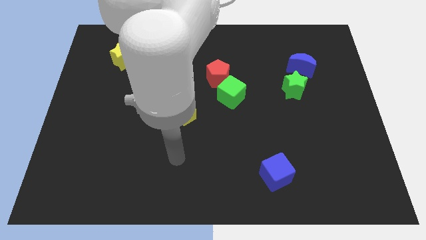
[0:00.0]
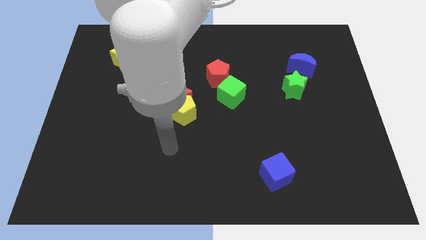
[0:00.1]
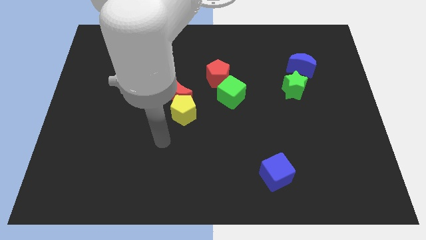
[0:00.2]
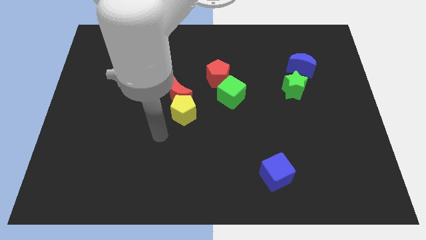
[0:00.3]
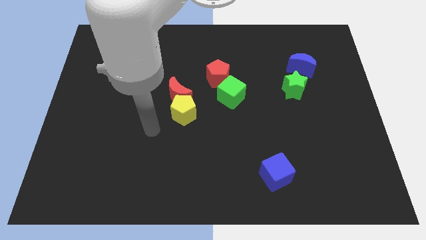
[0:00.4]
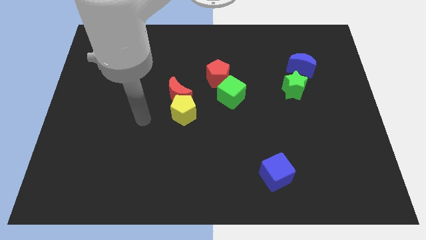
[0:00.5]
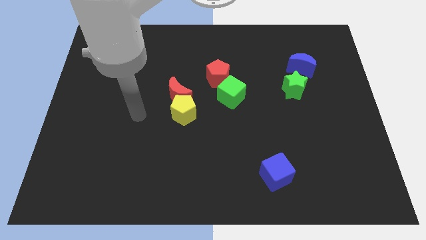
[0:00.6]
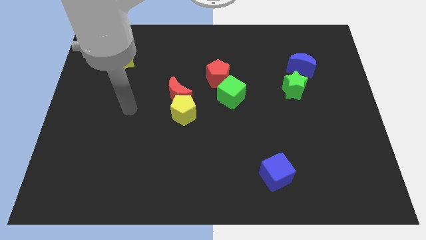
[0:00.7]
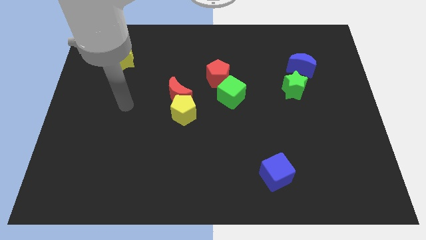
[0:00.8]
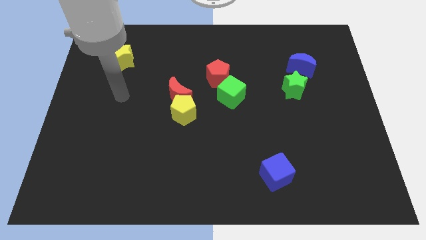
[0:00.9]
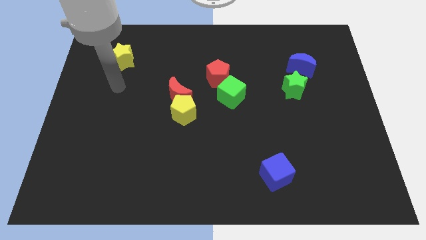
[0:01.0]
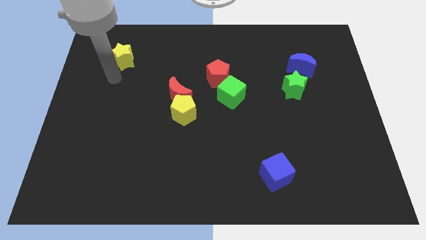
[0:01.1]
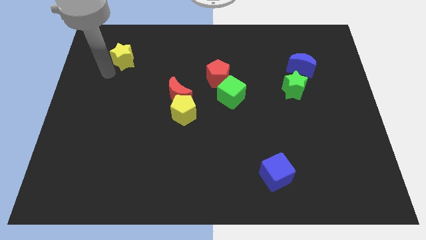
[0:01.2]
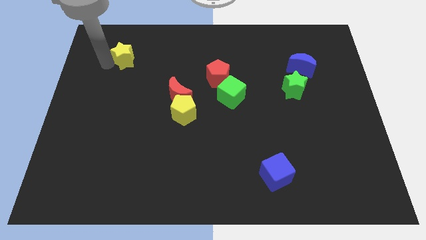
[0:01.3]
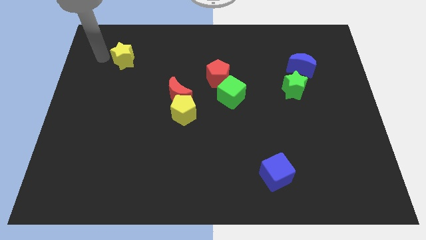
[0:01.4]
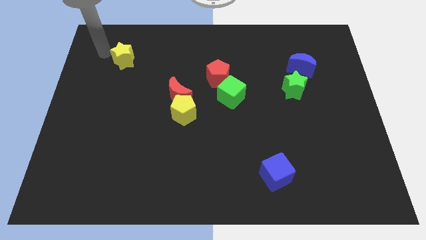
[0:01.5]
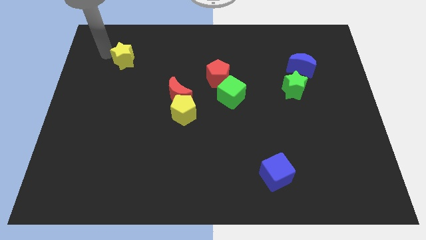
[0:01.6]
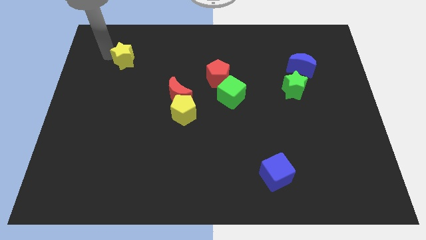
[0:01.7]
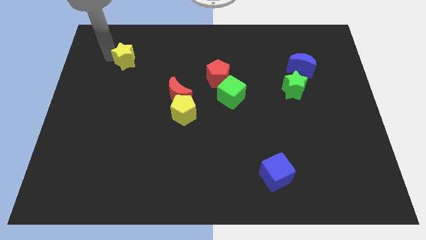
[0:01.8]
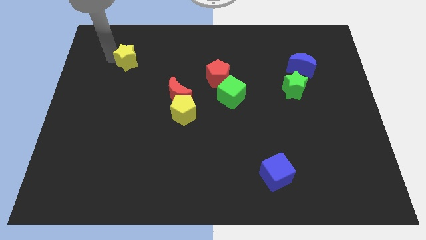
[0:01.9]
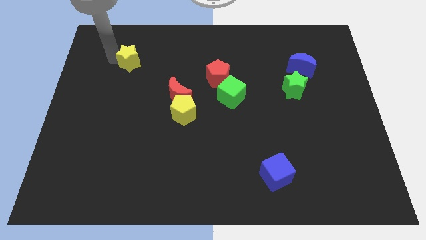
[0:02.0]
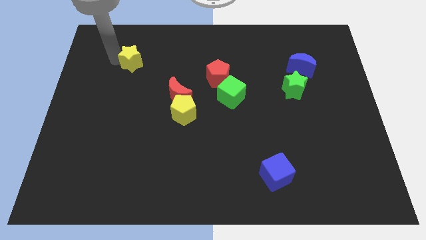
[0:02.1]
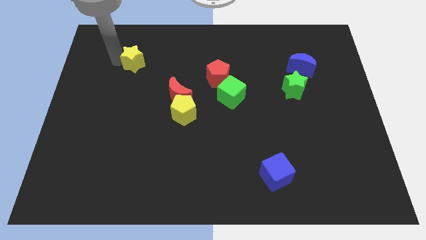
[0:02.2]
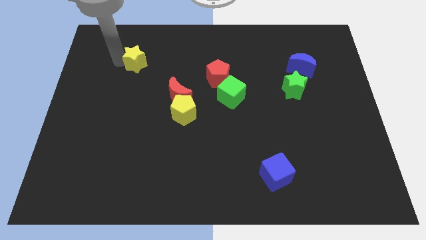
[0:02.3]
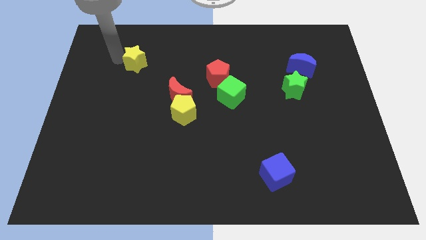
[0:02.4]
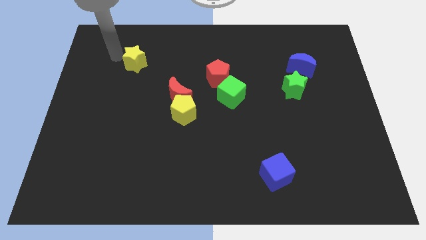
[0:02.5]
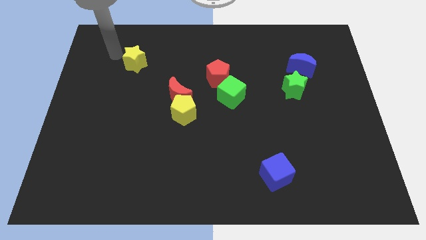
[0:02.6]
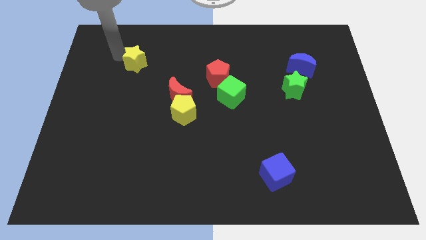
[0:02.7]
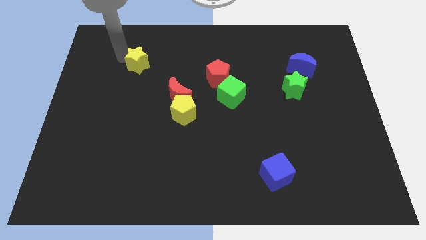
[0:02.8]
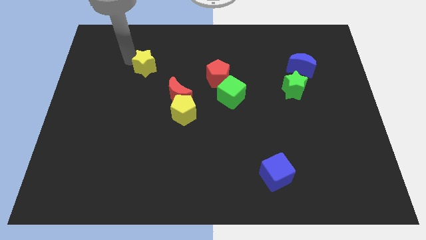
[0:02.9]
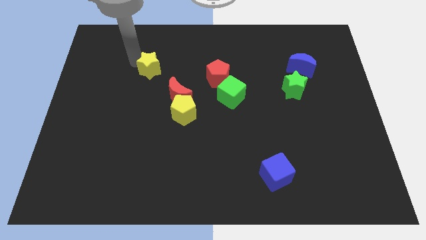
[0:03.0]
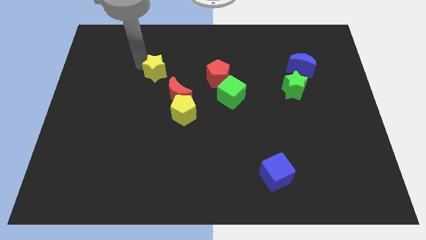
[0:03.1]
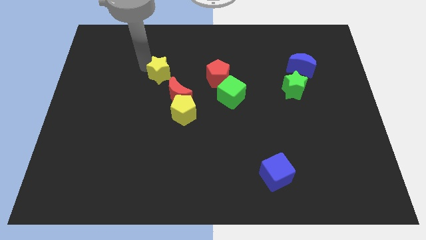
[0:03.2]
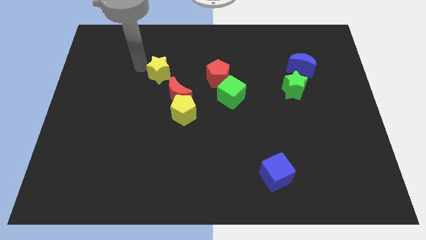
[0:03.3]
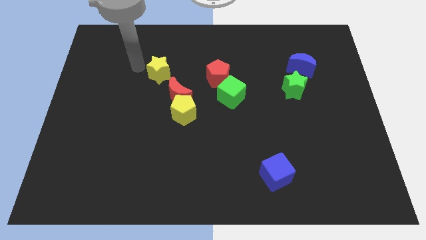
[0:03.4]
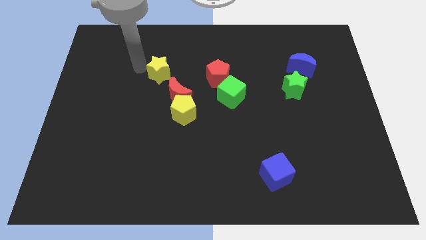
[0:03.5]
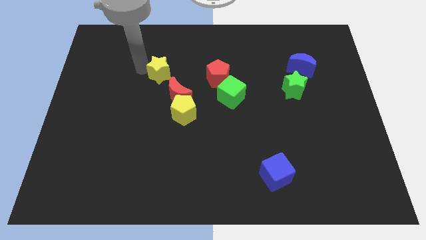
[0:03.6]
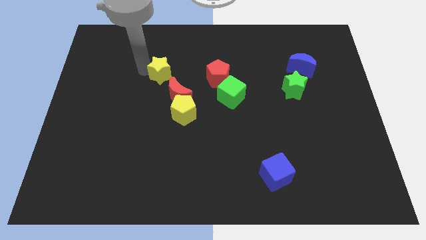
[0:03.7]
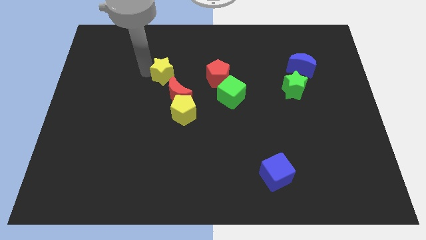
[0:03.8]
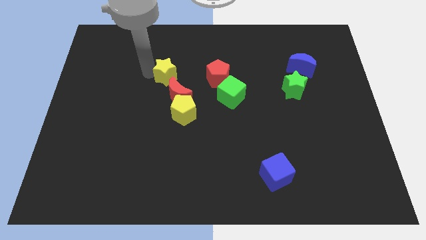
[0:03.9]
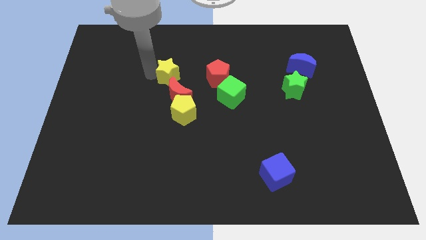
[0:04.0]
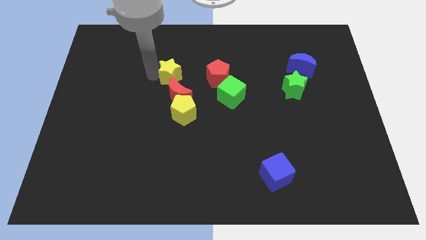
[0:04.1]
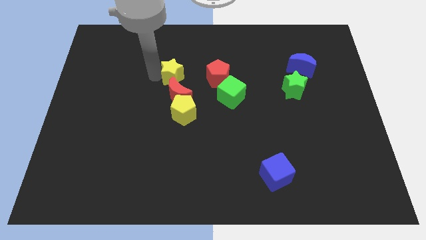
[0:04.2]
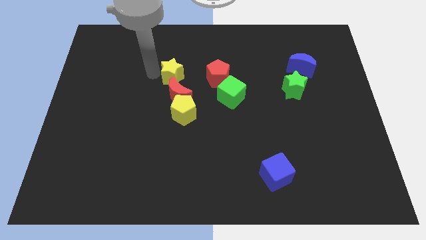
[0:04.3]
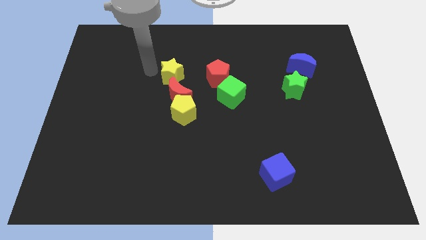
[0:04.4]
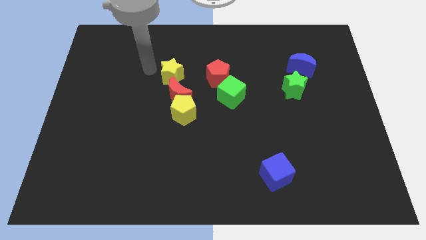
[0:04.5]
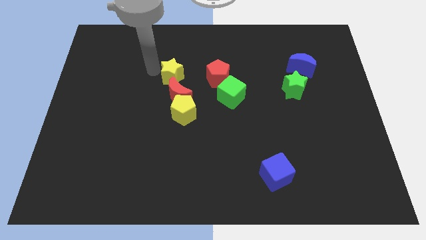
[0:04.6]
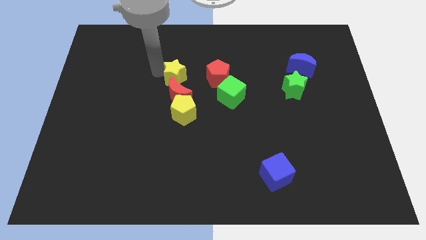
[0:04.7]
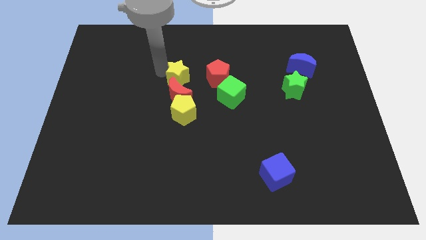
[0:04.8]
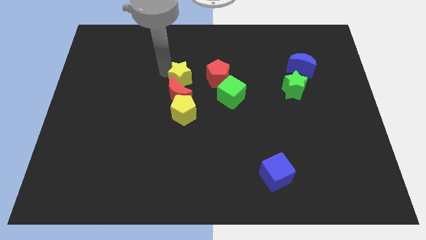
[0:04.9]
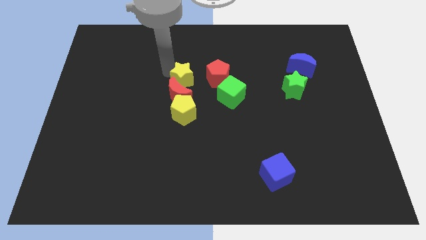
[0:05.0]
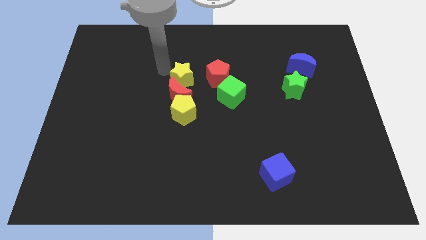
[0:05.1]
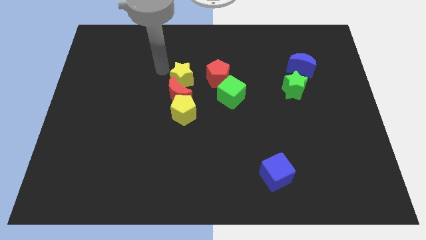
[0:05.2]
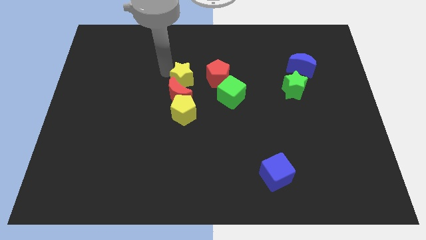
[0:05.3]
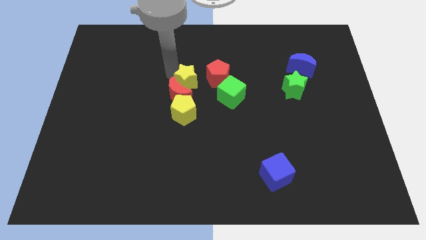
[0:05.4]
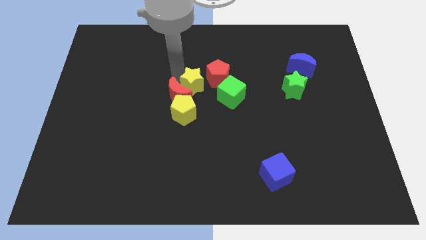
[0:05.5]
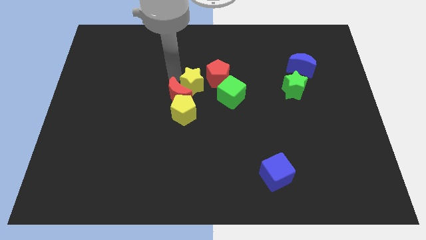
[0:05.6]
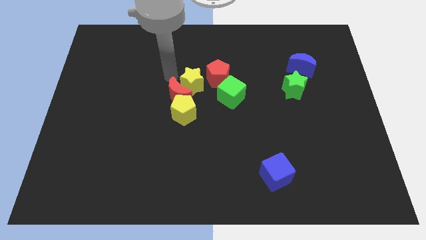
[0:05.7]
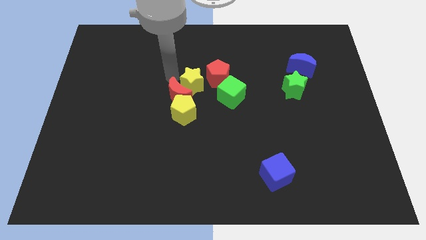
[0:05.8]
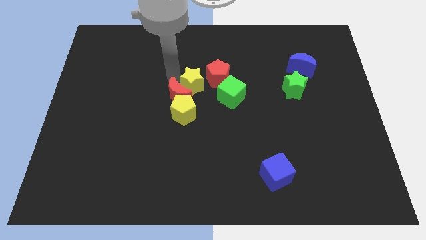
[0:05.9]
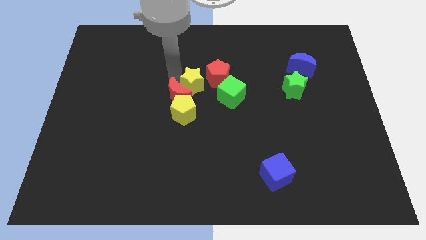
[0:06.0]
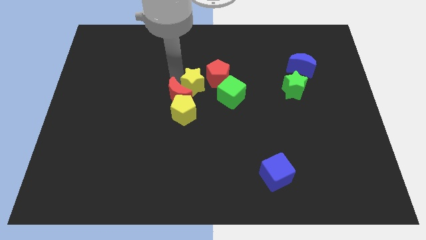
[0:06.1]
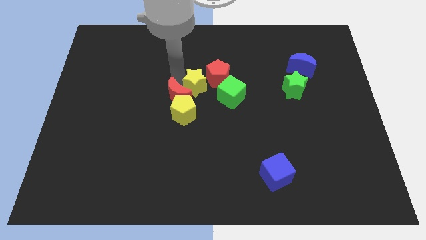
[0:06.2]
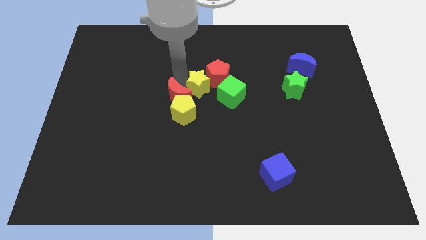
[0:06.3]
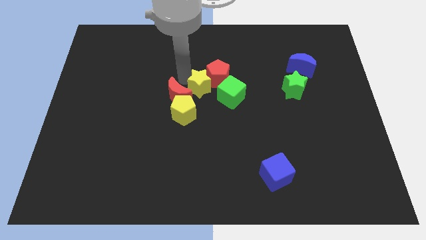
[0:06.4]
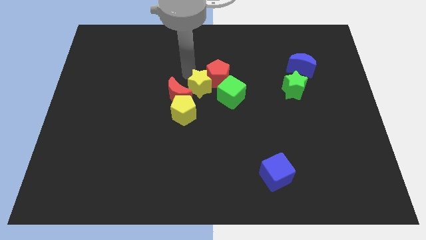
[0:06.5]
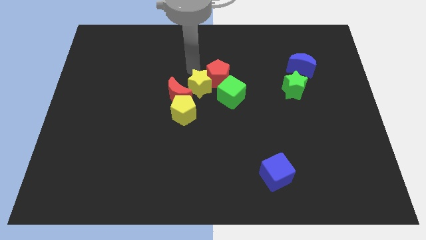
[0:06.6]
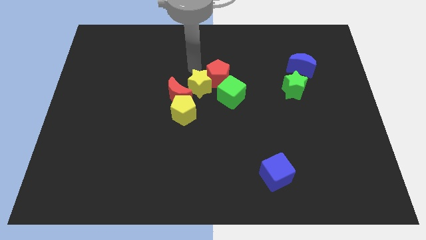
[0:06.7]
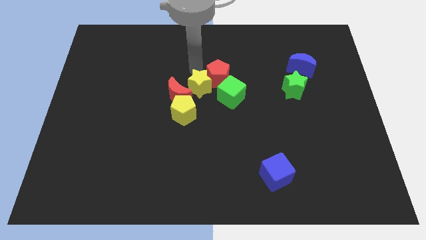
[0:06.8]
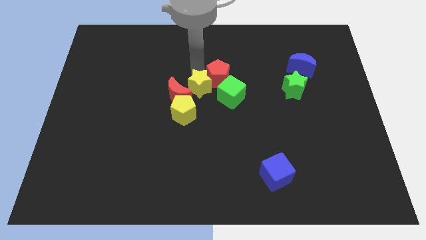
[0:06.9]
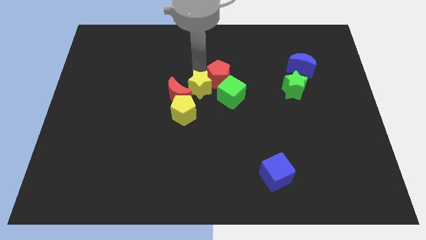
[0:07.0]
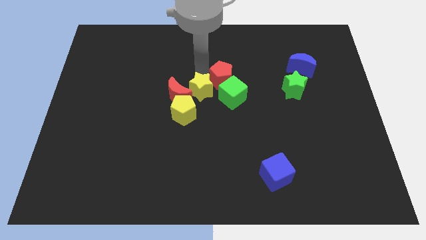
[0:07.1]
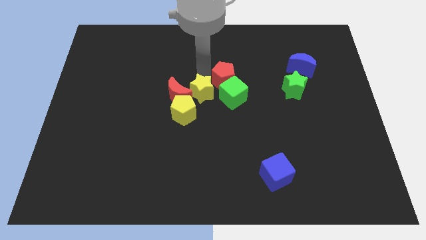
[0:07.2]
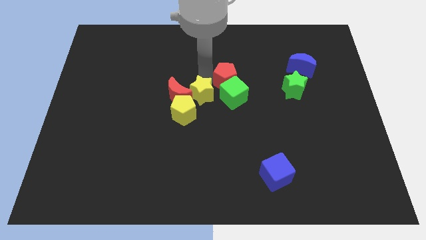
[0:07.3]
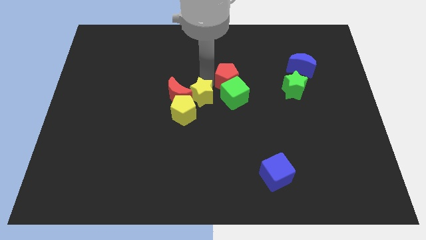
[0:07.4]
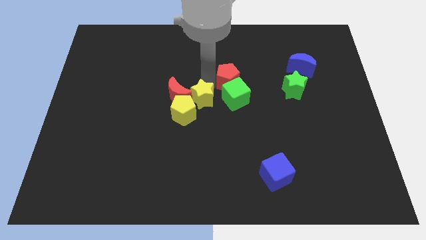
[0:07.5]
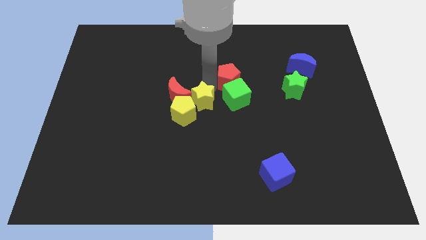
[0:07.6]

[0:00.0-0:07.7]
push the yellow star to the bottom left of the green cube
